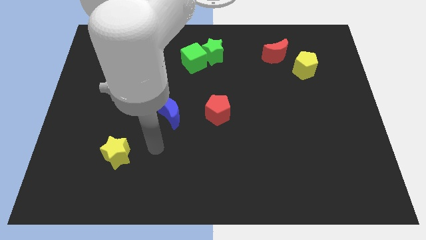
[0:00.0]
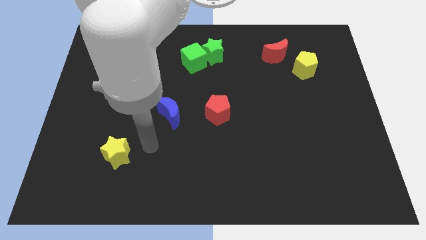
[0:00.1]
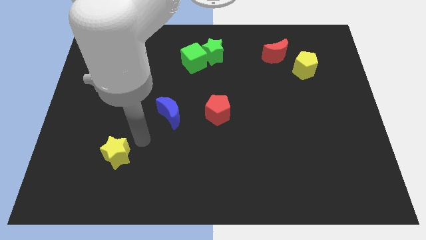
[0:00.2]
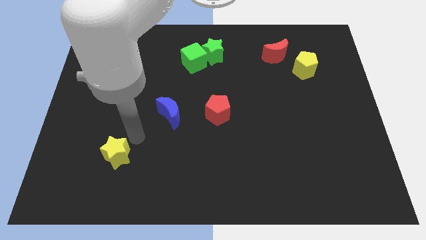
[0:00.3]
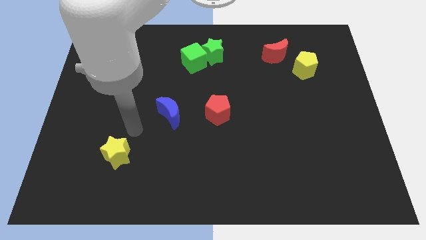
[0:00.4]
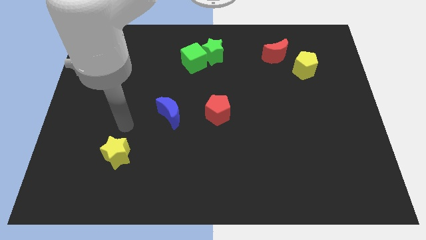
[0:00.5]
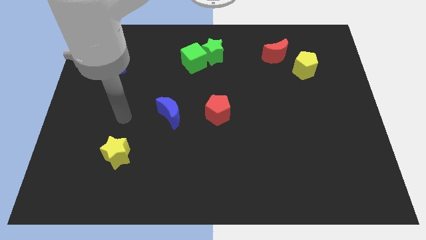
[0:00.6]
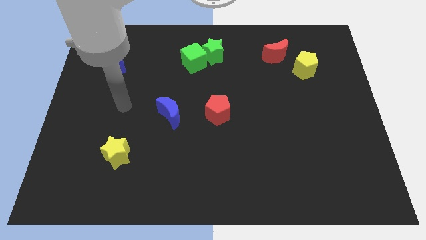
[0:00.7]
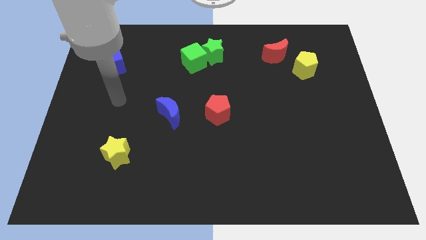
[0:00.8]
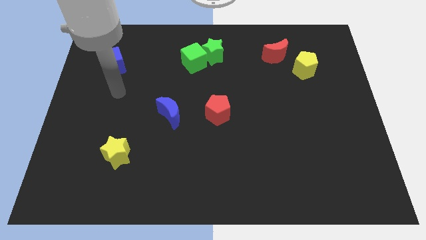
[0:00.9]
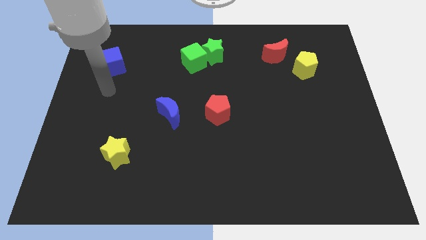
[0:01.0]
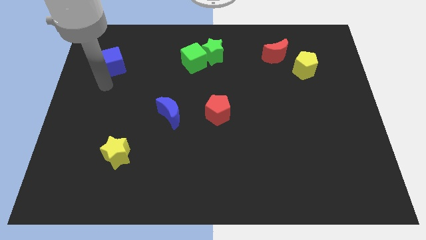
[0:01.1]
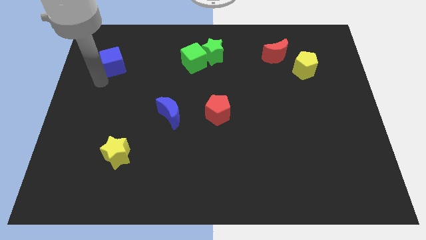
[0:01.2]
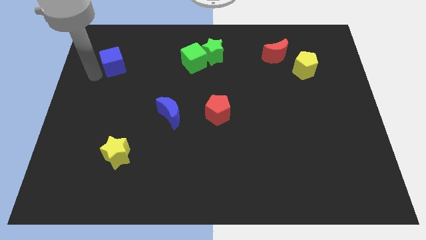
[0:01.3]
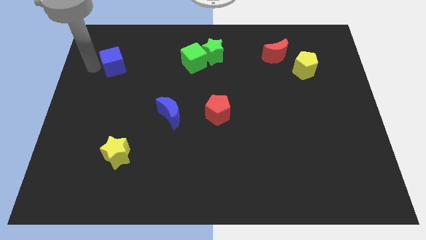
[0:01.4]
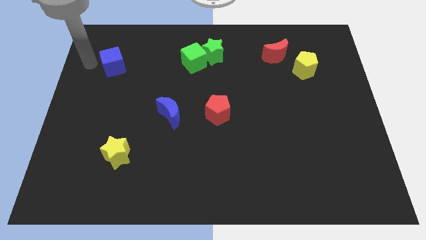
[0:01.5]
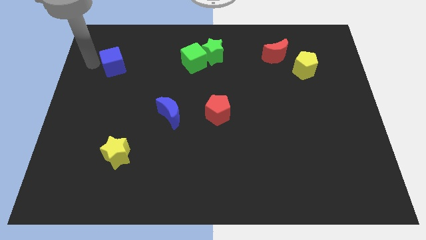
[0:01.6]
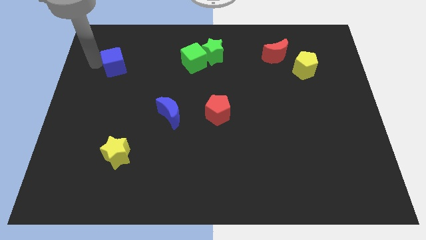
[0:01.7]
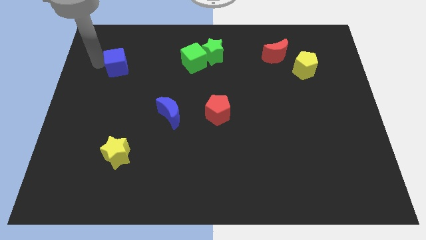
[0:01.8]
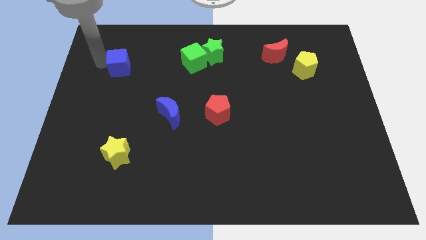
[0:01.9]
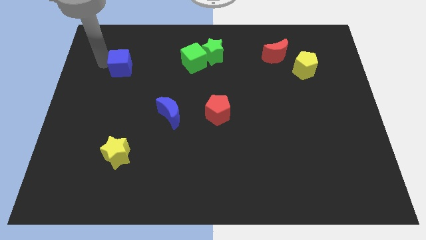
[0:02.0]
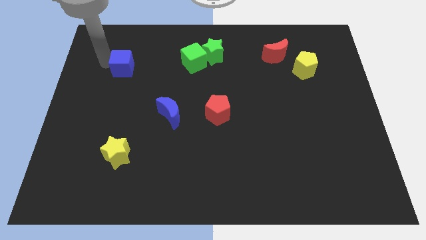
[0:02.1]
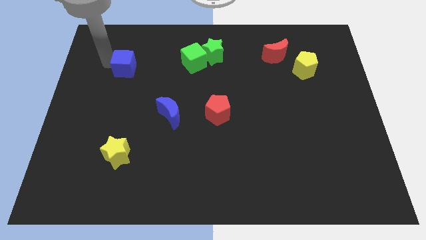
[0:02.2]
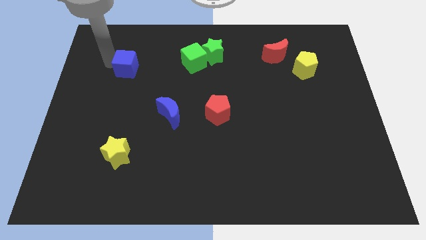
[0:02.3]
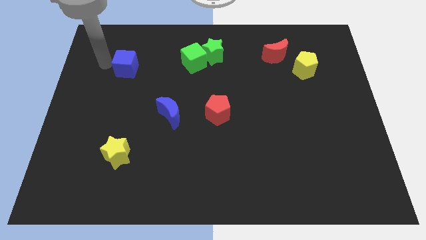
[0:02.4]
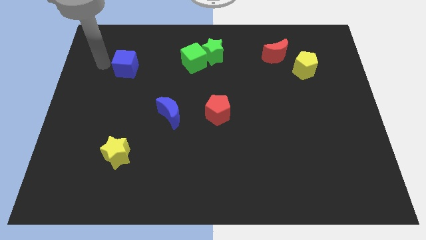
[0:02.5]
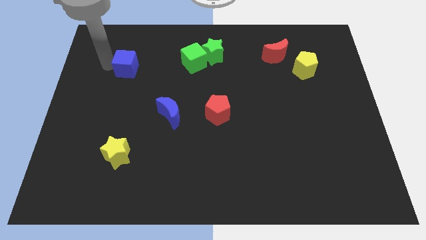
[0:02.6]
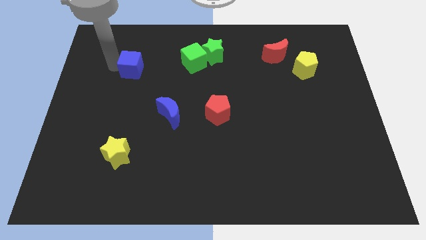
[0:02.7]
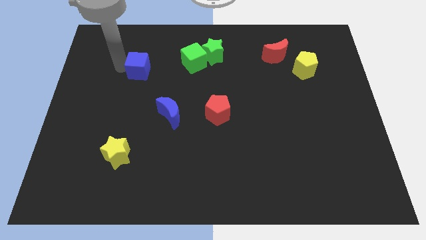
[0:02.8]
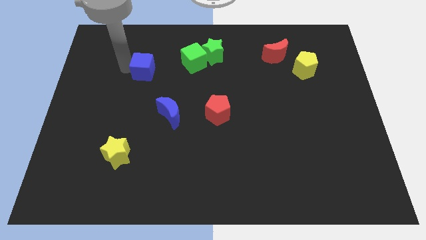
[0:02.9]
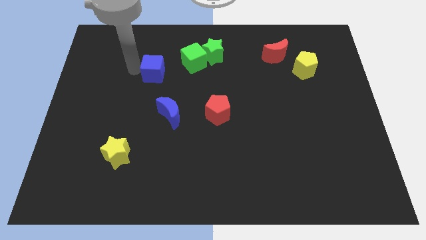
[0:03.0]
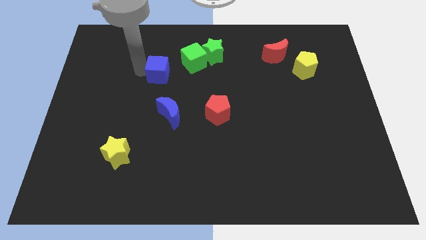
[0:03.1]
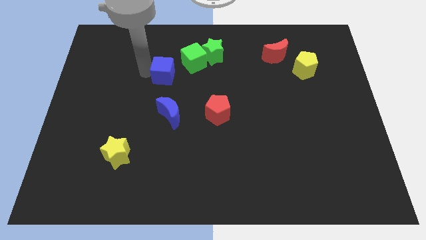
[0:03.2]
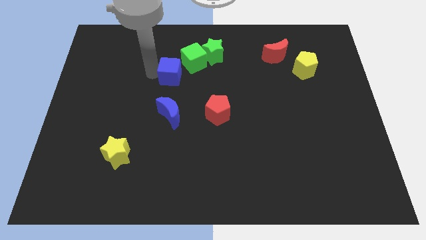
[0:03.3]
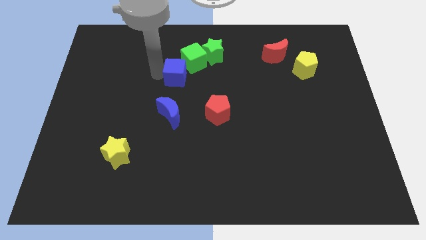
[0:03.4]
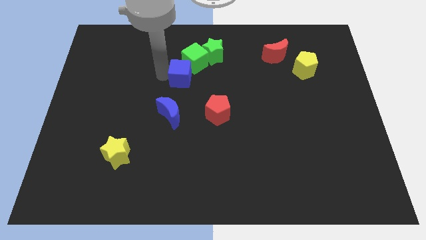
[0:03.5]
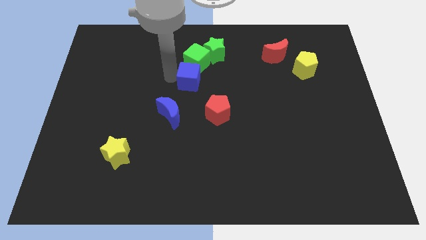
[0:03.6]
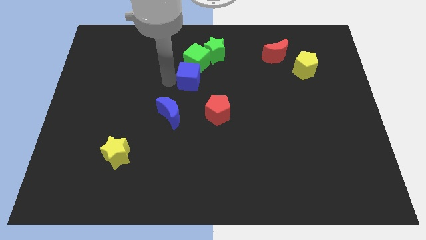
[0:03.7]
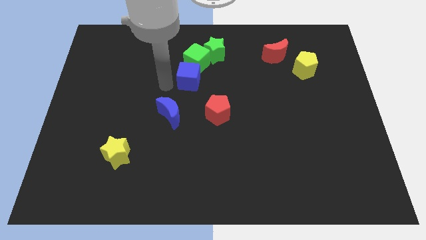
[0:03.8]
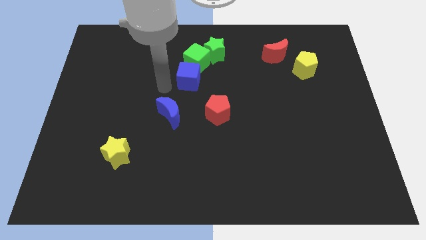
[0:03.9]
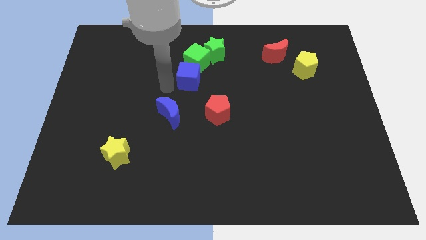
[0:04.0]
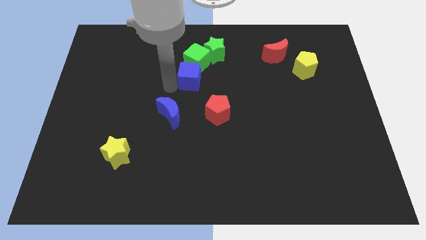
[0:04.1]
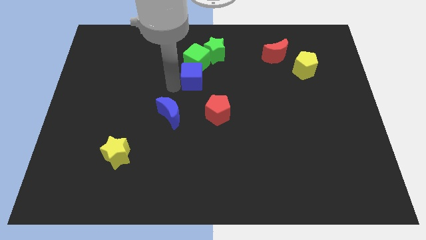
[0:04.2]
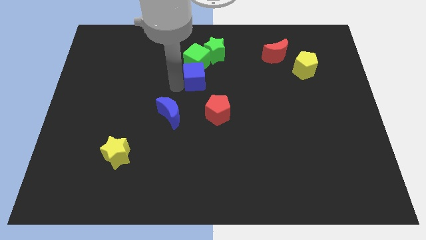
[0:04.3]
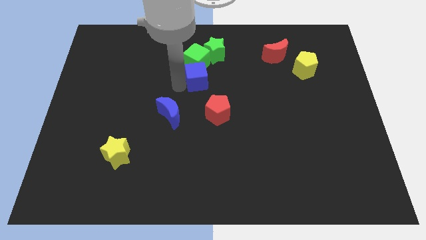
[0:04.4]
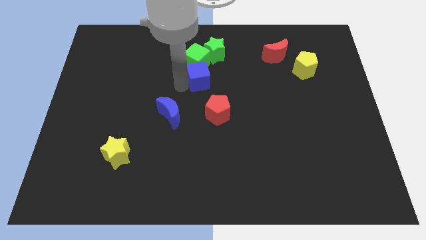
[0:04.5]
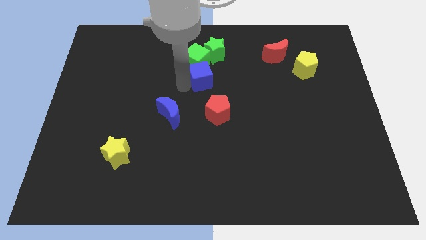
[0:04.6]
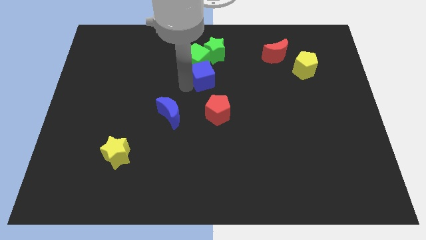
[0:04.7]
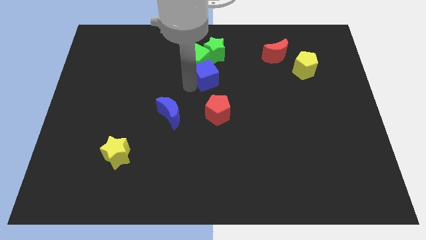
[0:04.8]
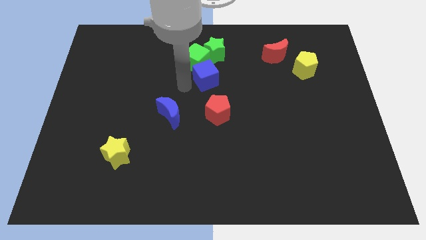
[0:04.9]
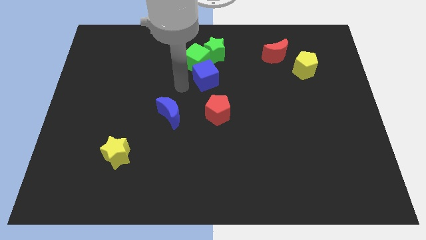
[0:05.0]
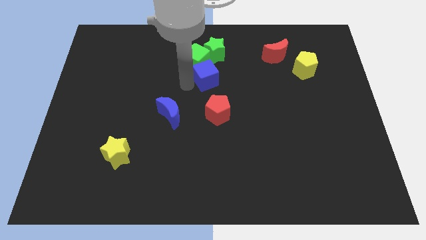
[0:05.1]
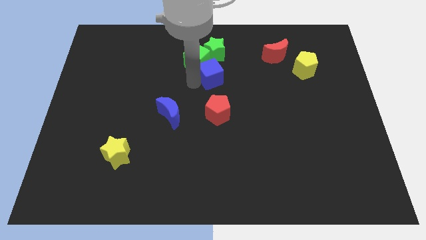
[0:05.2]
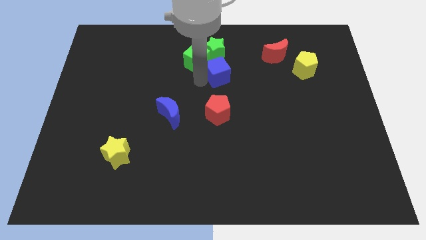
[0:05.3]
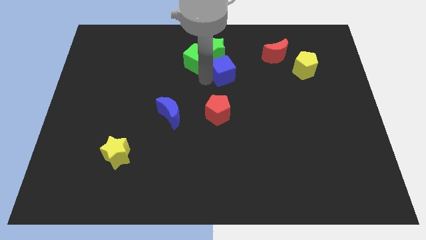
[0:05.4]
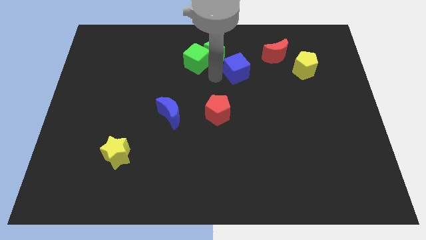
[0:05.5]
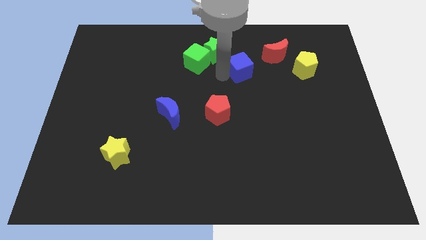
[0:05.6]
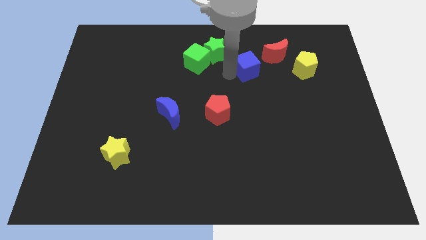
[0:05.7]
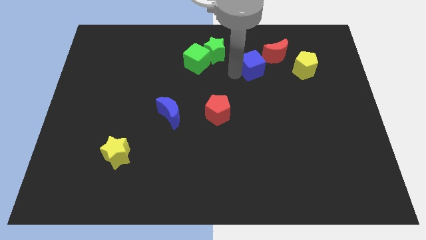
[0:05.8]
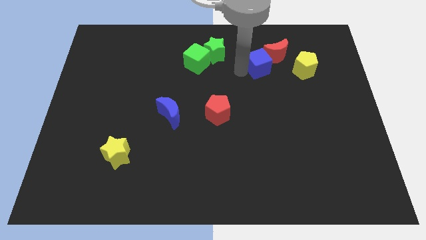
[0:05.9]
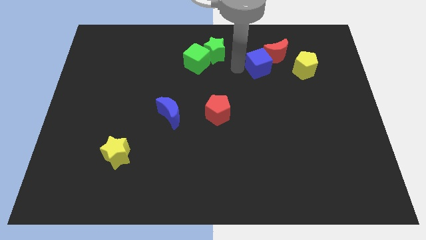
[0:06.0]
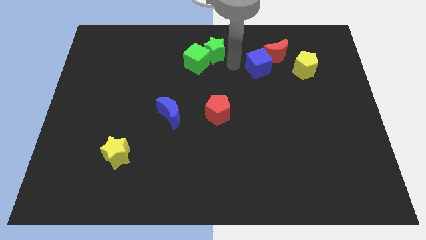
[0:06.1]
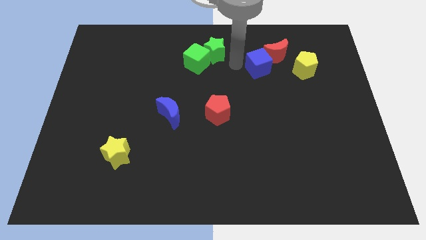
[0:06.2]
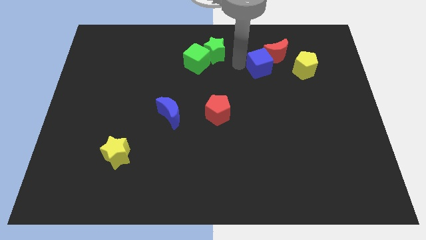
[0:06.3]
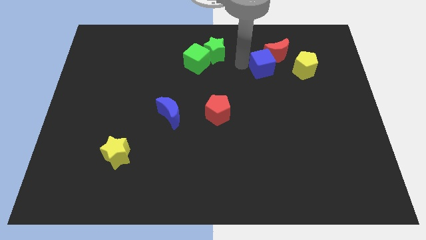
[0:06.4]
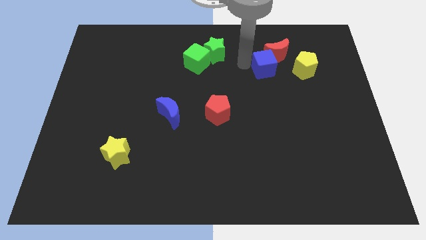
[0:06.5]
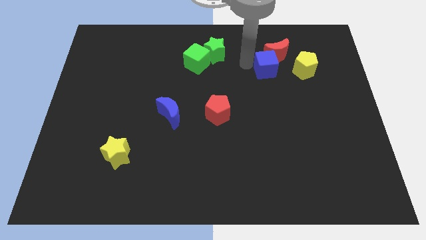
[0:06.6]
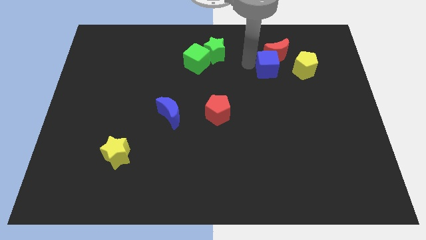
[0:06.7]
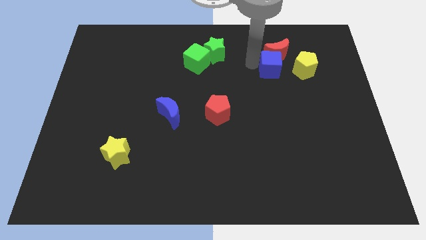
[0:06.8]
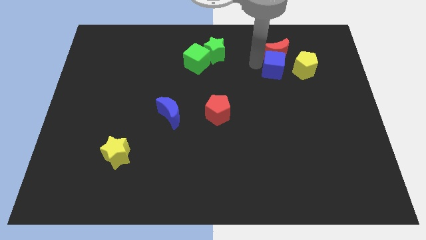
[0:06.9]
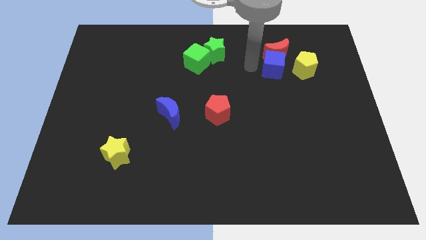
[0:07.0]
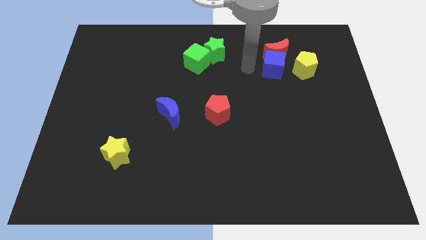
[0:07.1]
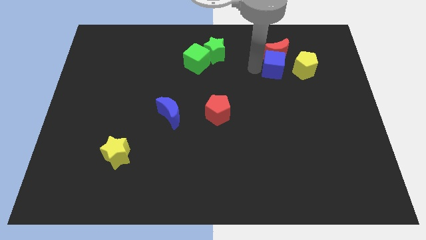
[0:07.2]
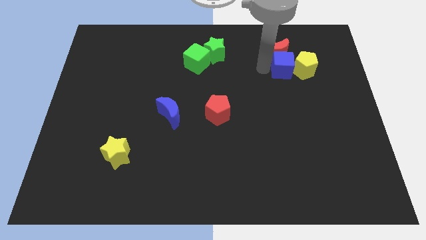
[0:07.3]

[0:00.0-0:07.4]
move the blue cube towards the yellow pentagon
